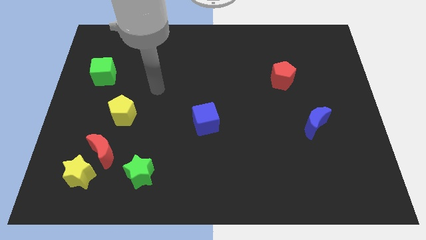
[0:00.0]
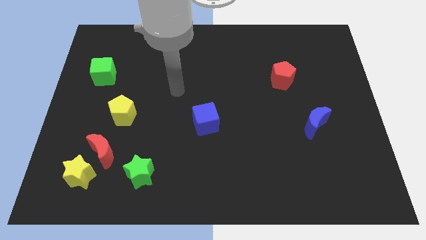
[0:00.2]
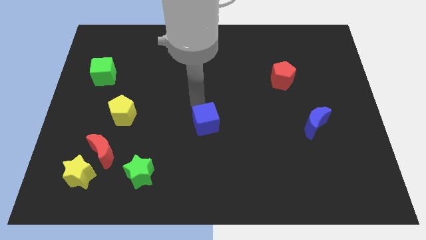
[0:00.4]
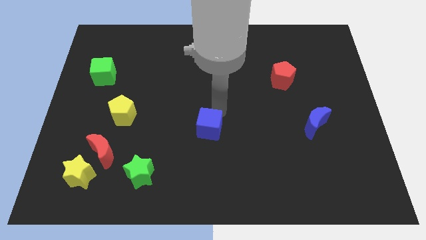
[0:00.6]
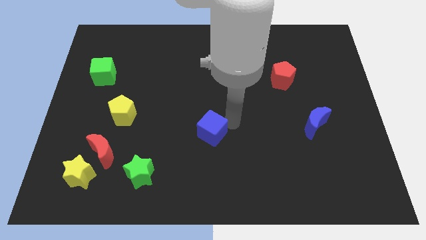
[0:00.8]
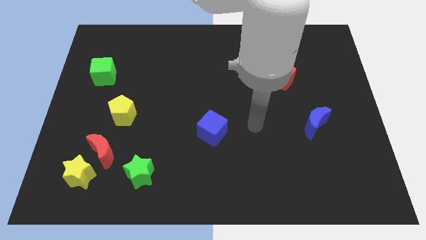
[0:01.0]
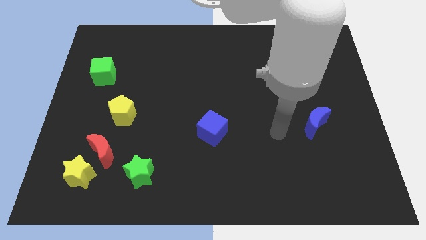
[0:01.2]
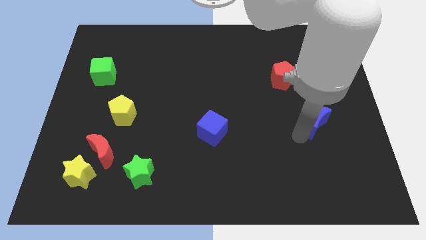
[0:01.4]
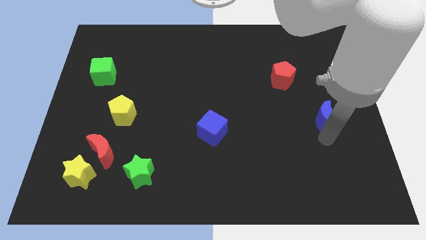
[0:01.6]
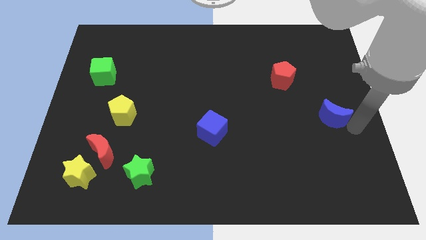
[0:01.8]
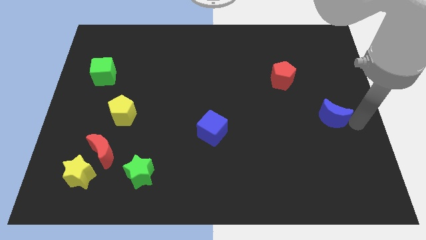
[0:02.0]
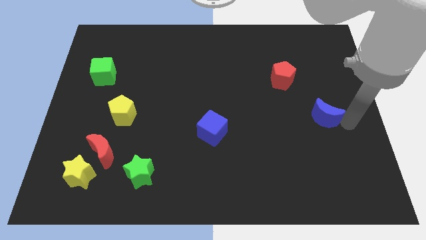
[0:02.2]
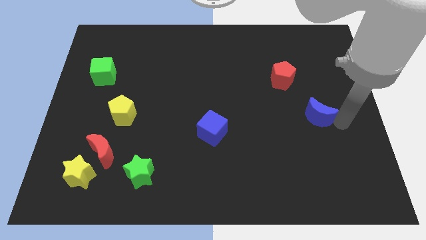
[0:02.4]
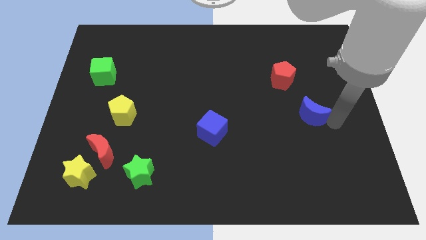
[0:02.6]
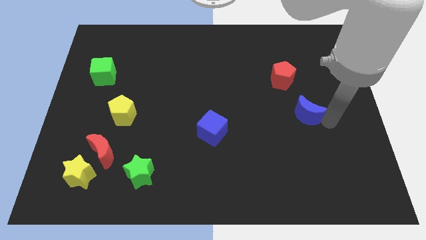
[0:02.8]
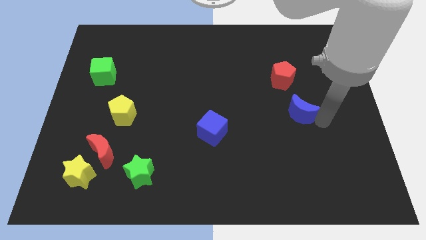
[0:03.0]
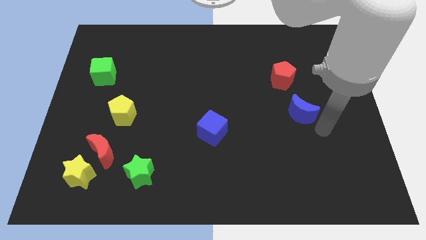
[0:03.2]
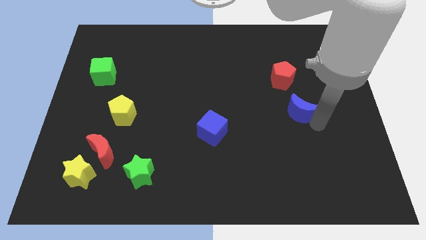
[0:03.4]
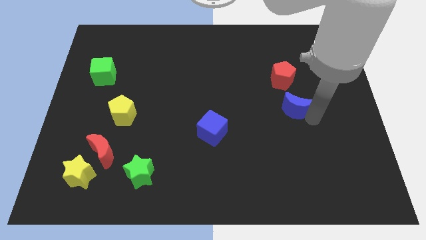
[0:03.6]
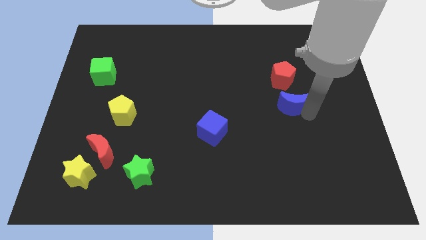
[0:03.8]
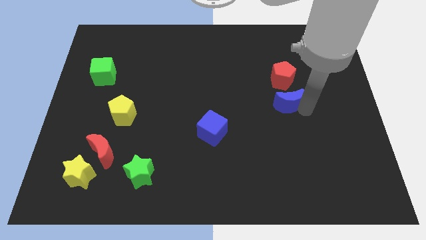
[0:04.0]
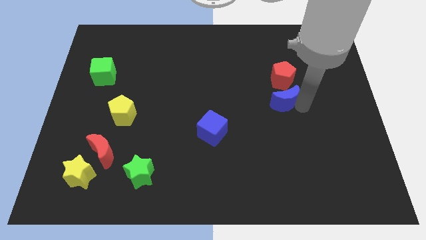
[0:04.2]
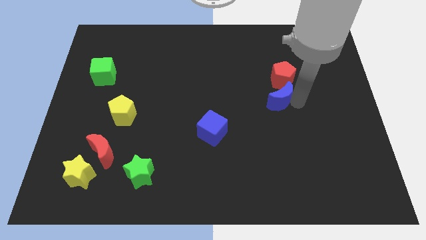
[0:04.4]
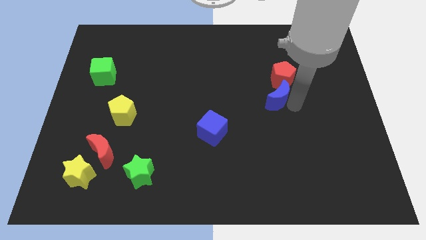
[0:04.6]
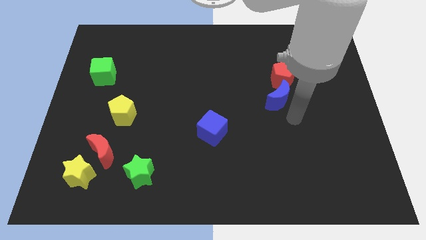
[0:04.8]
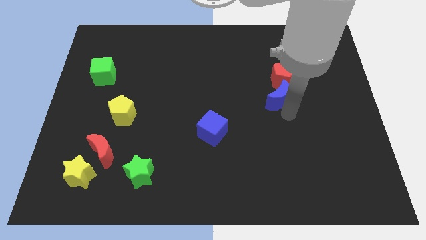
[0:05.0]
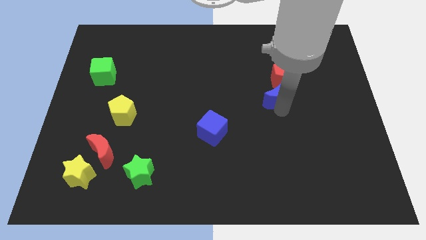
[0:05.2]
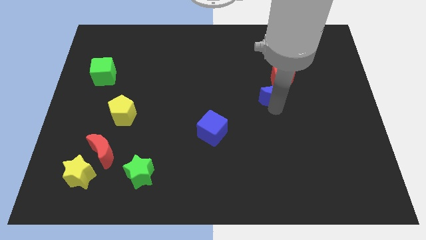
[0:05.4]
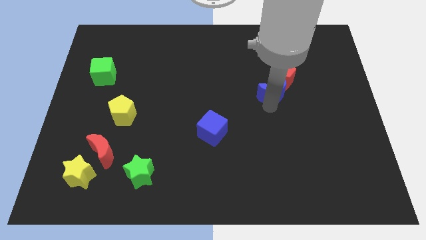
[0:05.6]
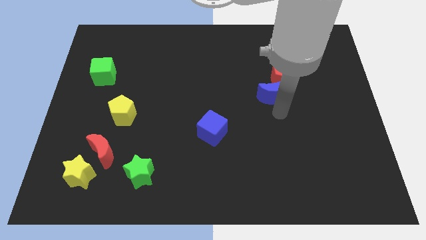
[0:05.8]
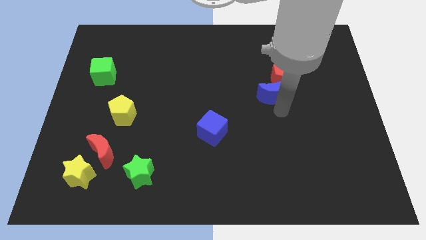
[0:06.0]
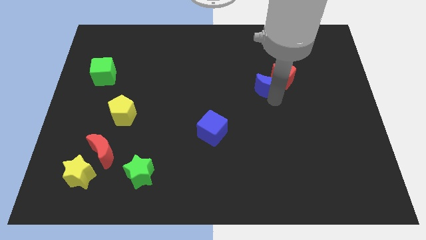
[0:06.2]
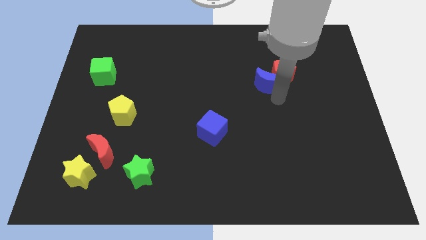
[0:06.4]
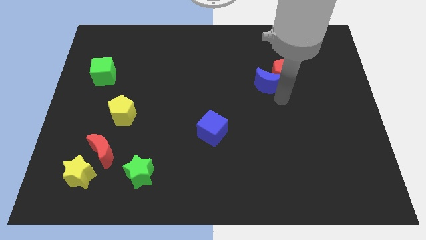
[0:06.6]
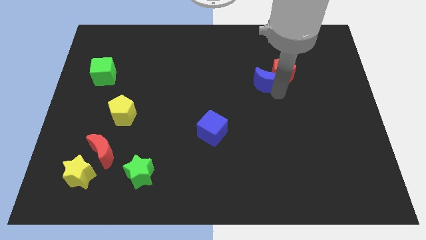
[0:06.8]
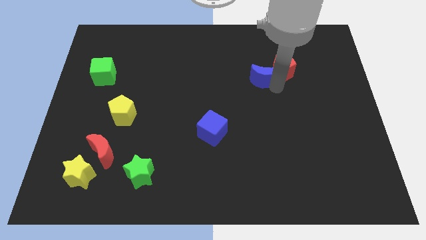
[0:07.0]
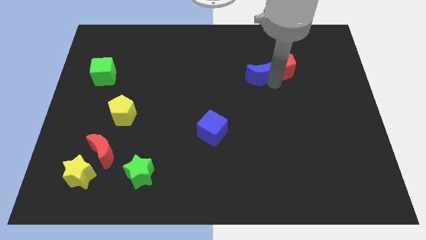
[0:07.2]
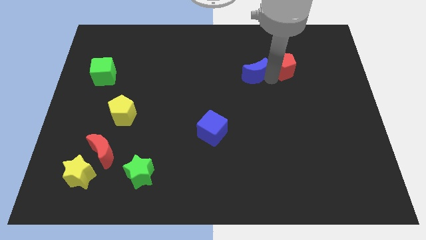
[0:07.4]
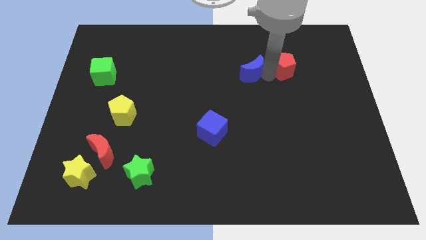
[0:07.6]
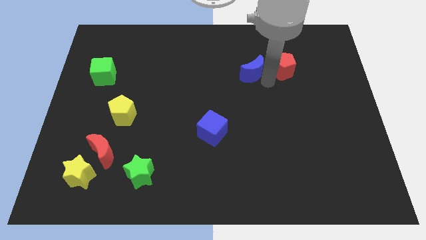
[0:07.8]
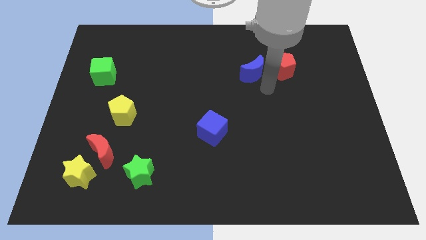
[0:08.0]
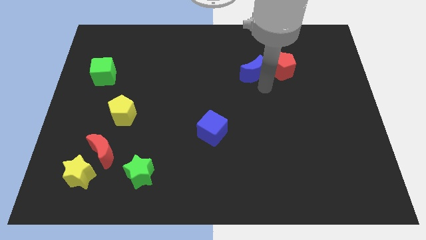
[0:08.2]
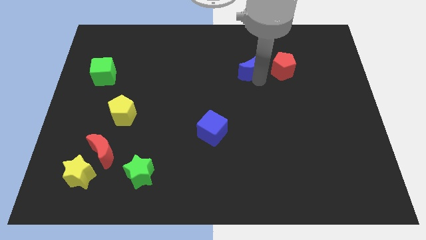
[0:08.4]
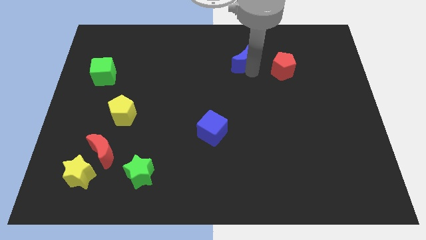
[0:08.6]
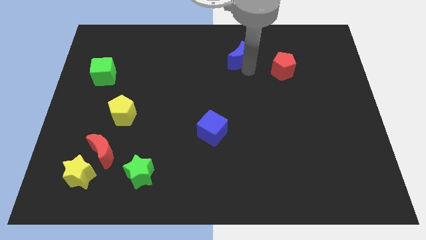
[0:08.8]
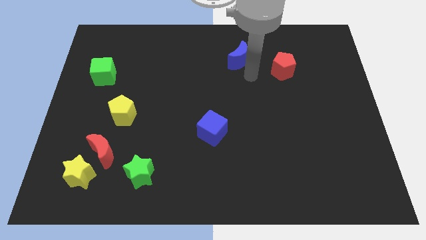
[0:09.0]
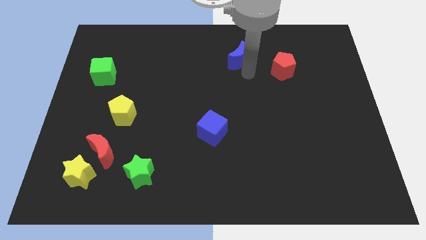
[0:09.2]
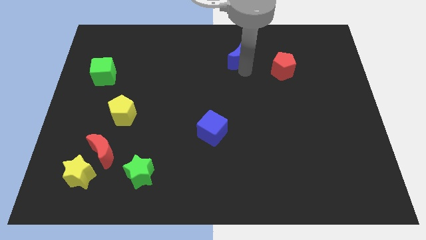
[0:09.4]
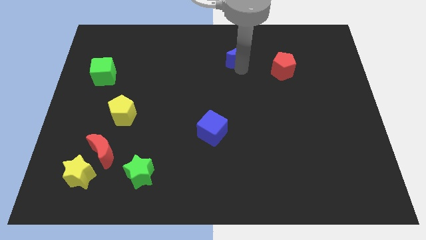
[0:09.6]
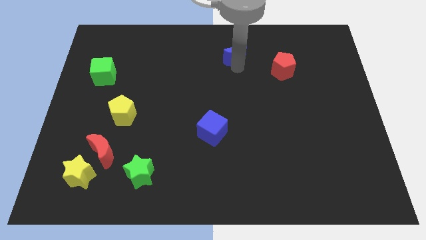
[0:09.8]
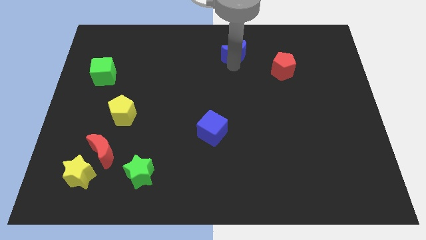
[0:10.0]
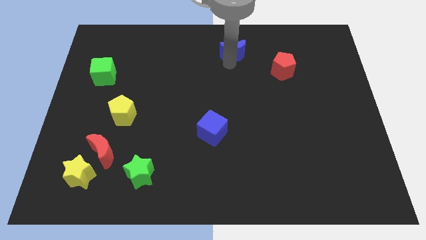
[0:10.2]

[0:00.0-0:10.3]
move the blue moon to the top side

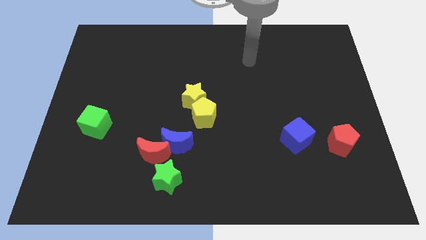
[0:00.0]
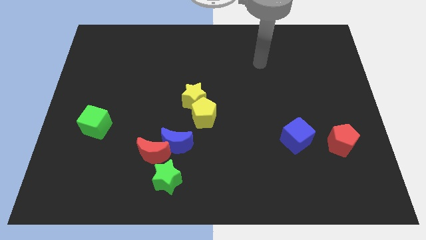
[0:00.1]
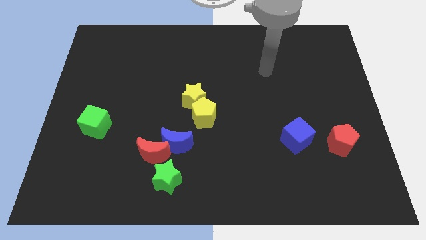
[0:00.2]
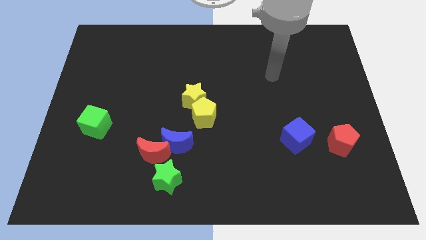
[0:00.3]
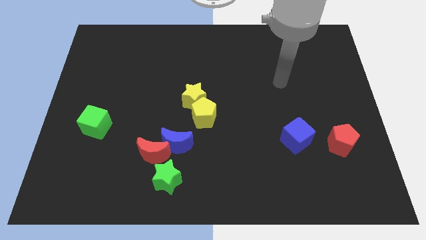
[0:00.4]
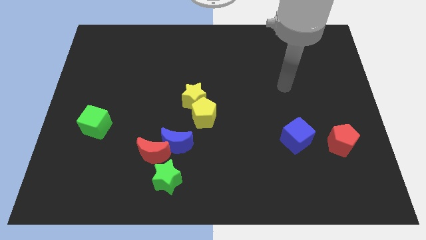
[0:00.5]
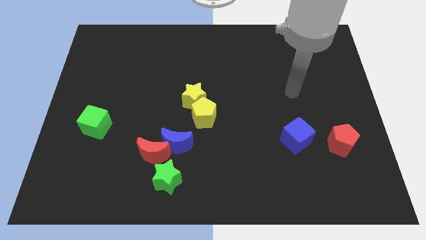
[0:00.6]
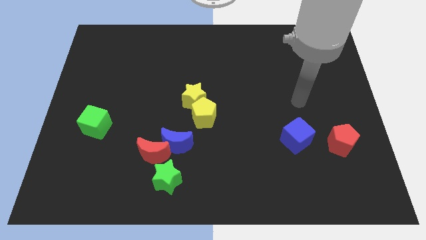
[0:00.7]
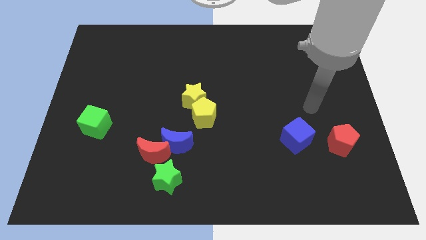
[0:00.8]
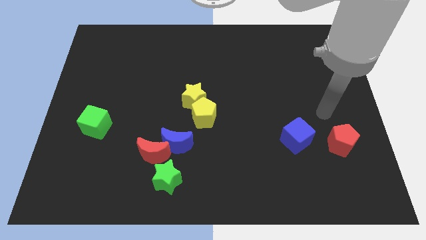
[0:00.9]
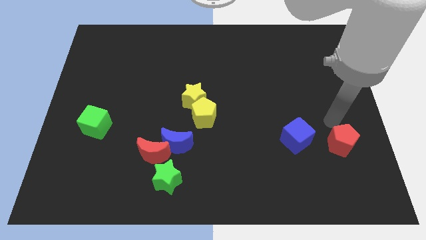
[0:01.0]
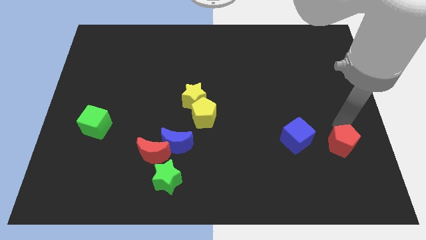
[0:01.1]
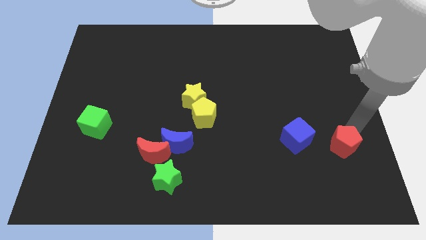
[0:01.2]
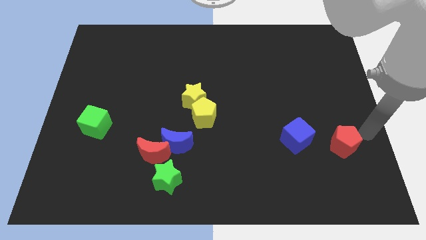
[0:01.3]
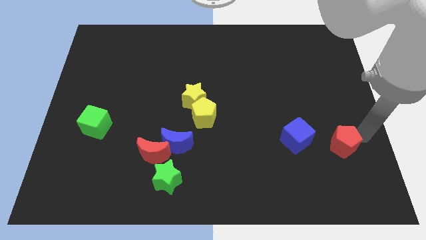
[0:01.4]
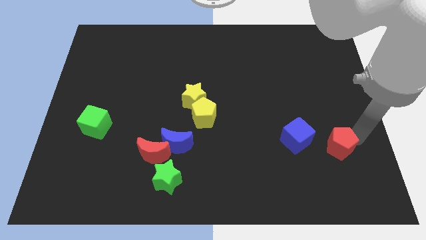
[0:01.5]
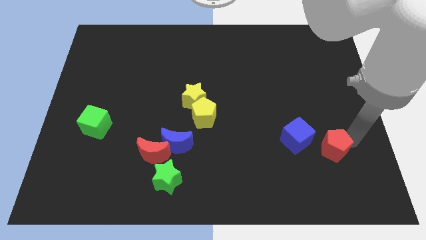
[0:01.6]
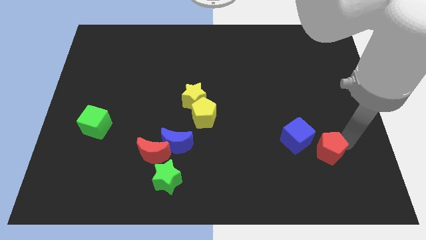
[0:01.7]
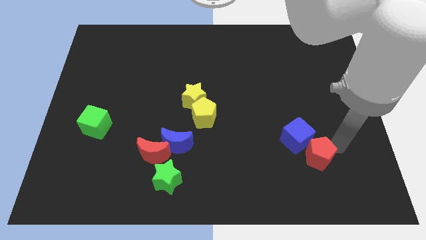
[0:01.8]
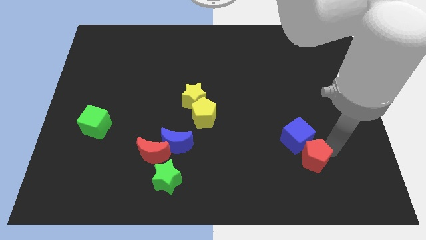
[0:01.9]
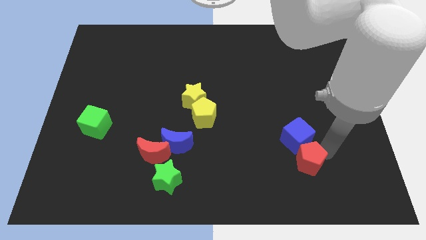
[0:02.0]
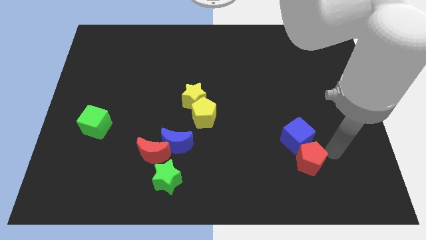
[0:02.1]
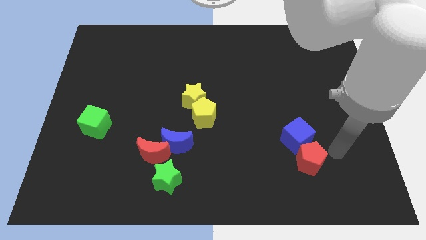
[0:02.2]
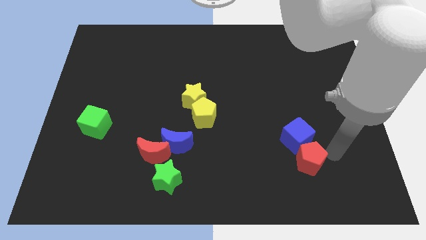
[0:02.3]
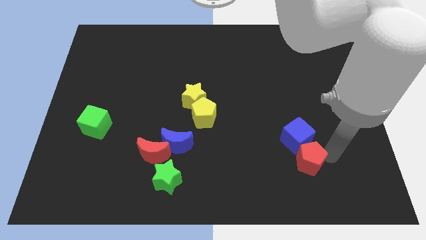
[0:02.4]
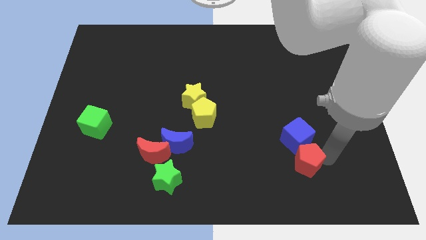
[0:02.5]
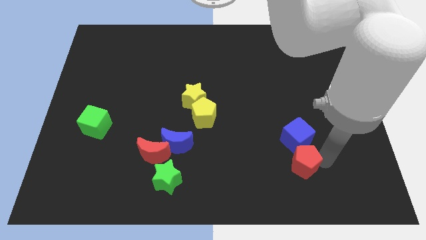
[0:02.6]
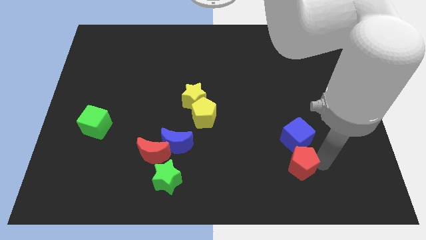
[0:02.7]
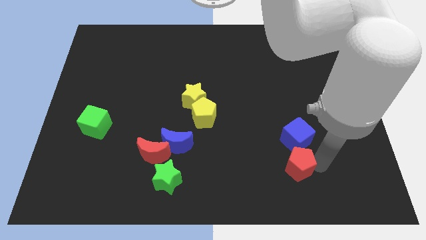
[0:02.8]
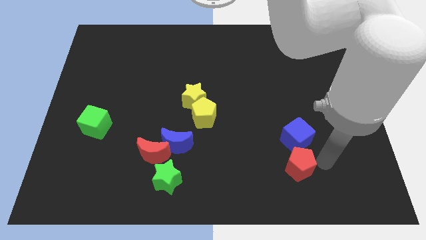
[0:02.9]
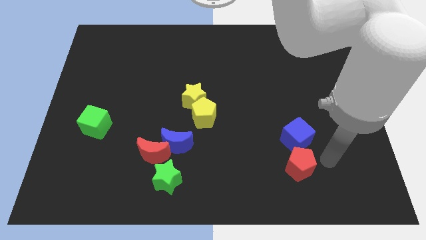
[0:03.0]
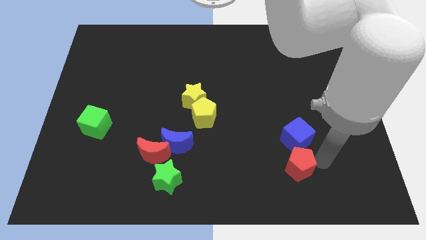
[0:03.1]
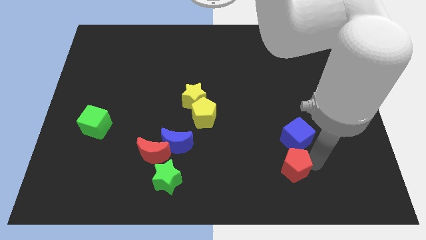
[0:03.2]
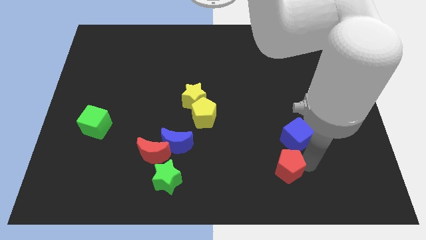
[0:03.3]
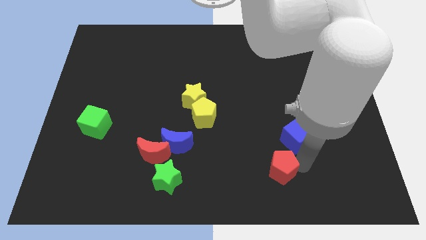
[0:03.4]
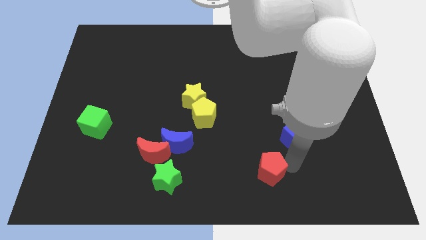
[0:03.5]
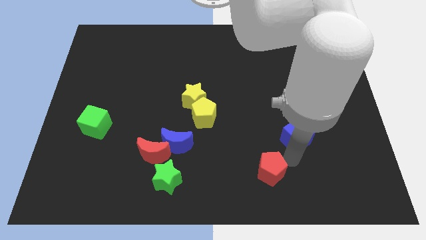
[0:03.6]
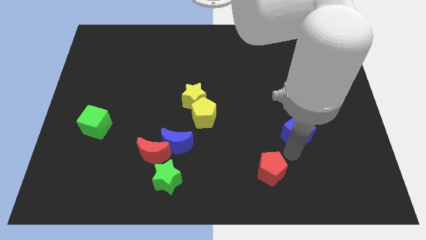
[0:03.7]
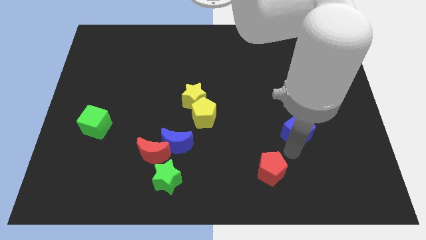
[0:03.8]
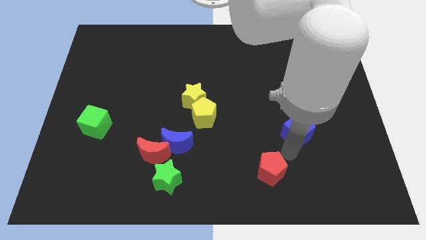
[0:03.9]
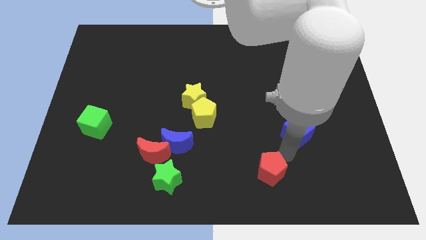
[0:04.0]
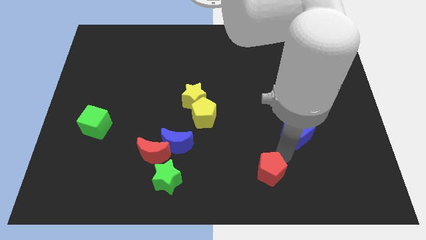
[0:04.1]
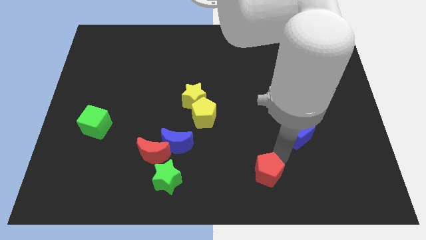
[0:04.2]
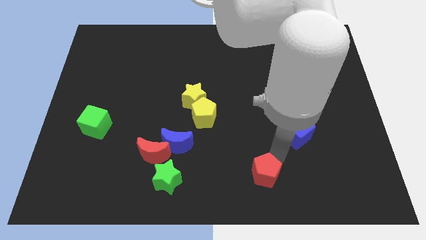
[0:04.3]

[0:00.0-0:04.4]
move the red pentagon to the bottom
